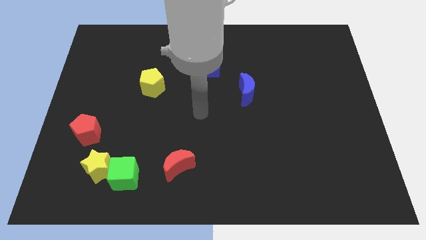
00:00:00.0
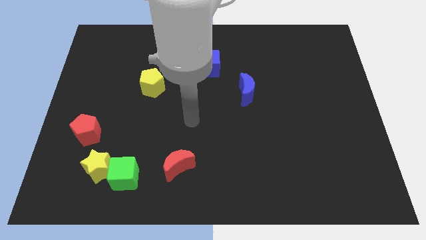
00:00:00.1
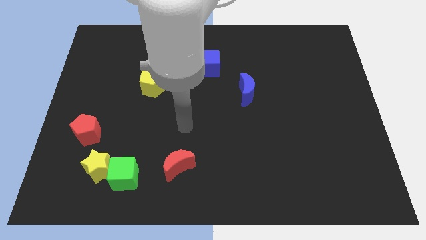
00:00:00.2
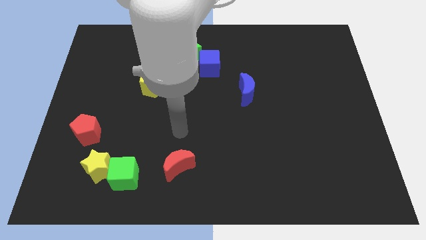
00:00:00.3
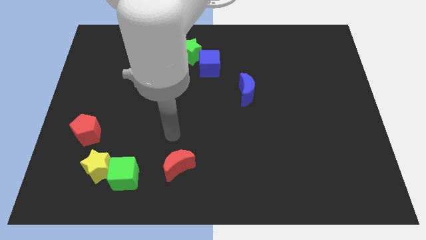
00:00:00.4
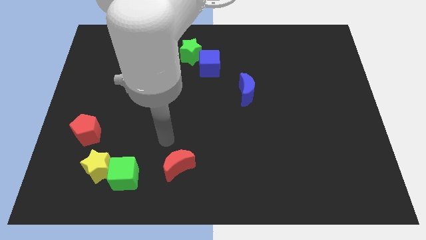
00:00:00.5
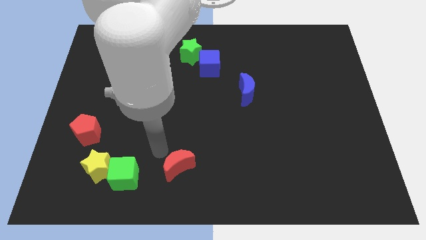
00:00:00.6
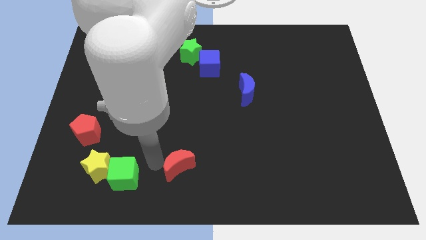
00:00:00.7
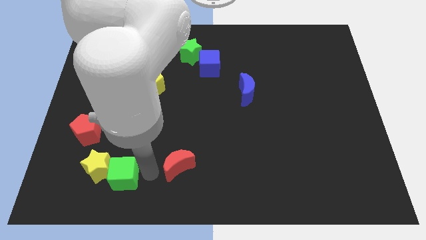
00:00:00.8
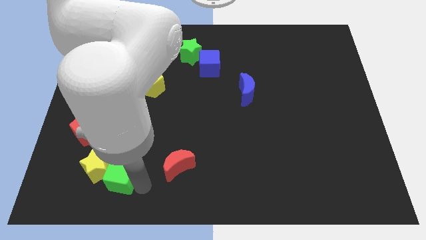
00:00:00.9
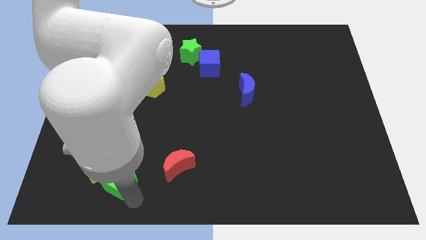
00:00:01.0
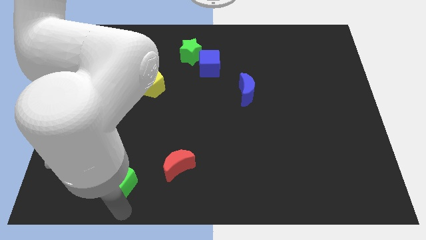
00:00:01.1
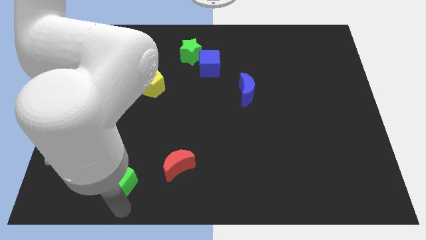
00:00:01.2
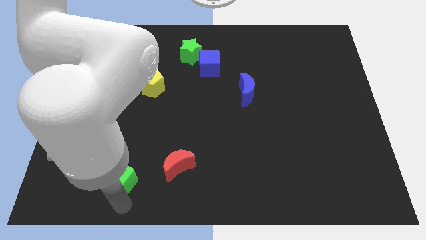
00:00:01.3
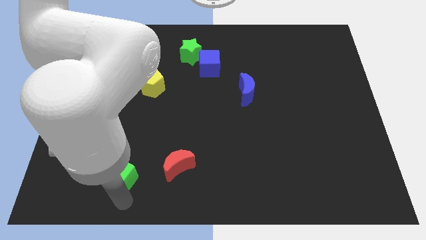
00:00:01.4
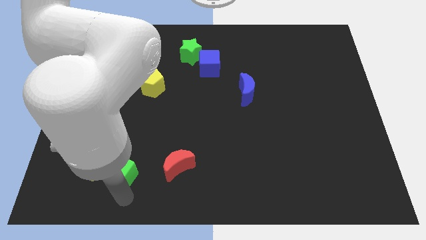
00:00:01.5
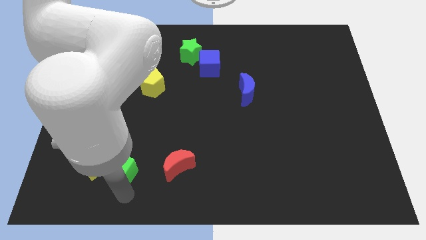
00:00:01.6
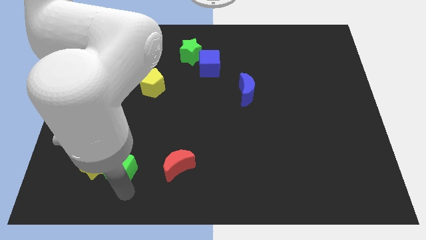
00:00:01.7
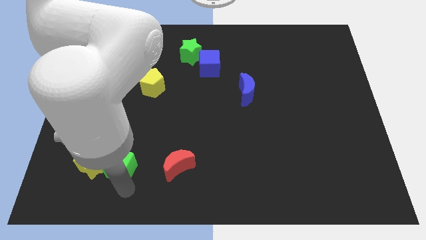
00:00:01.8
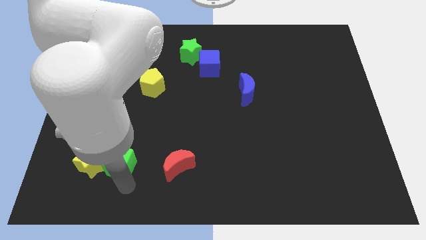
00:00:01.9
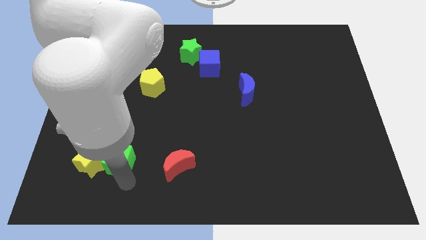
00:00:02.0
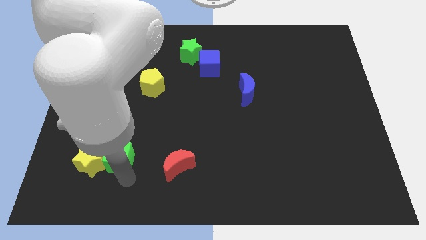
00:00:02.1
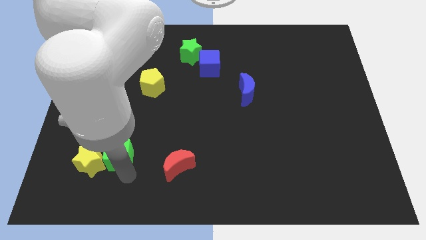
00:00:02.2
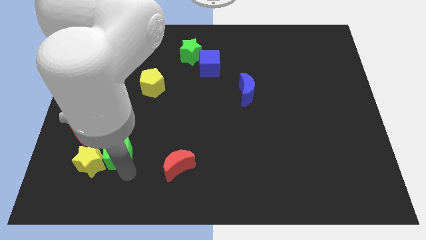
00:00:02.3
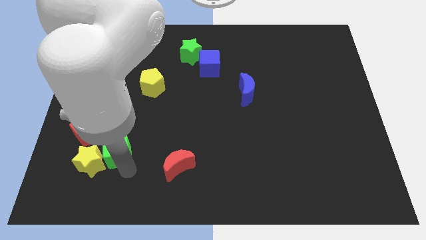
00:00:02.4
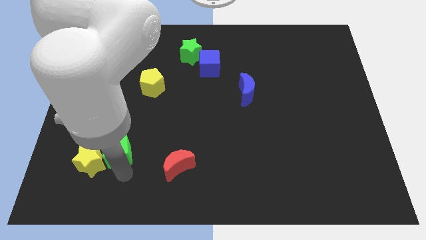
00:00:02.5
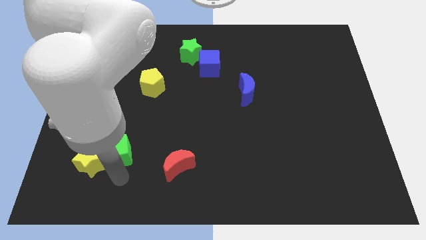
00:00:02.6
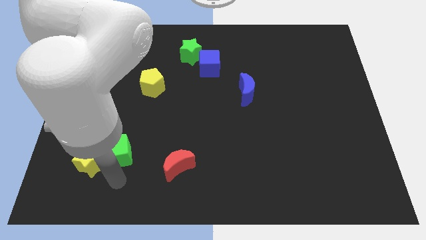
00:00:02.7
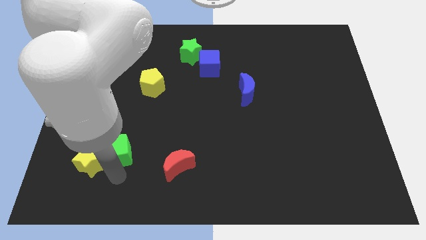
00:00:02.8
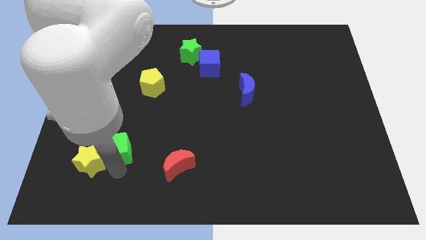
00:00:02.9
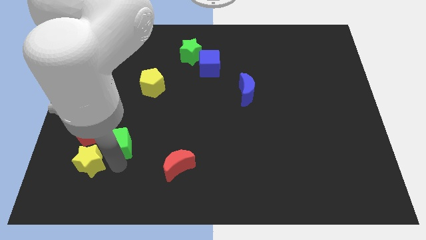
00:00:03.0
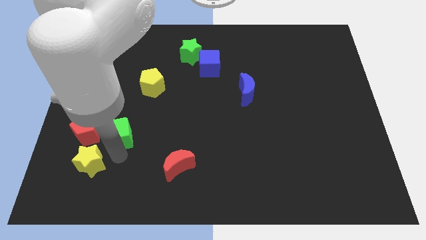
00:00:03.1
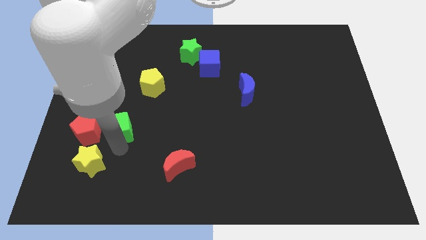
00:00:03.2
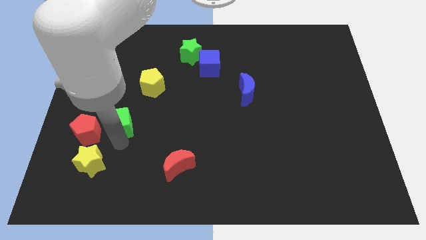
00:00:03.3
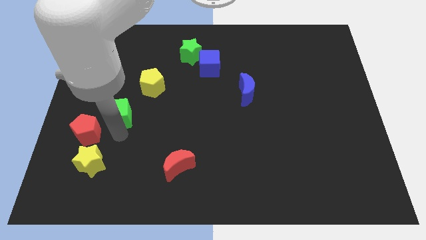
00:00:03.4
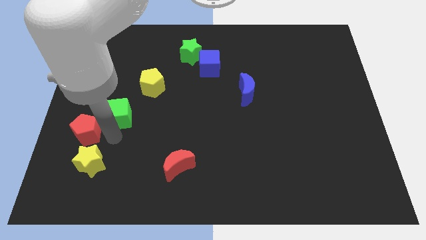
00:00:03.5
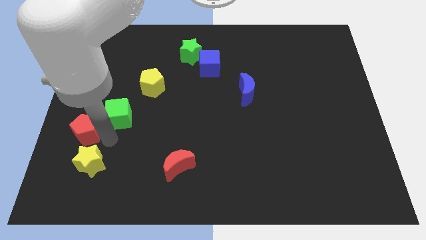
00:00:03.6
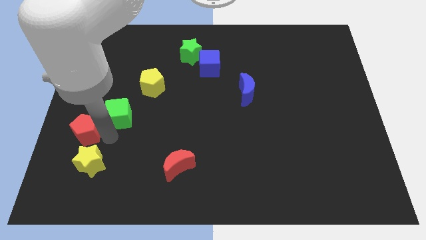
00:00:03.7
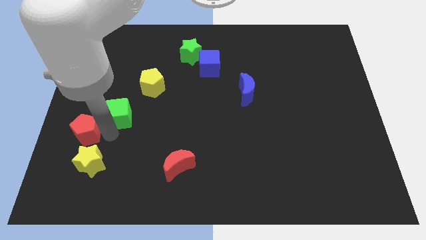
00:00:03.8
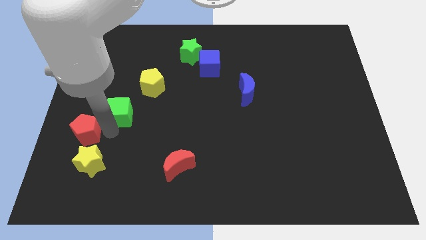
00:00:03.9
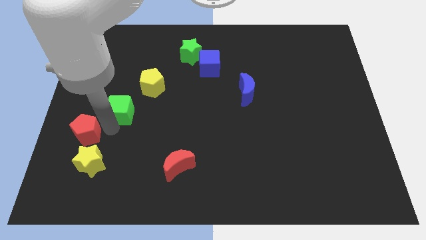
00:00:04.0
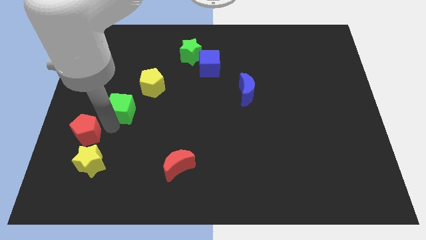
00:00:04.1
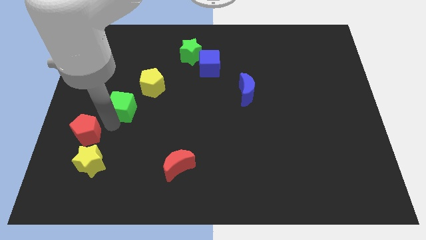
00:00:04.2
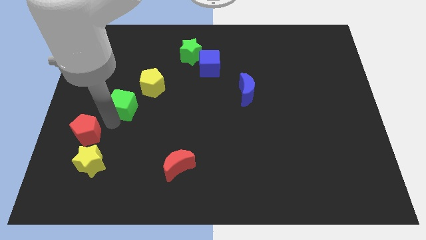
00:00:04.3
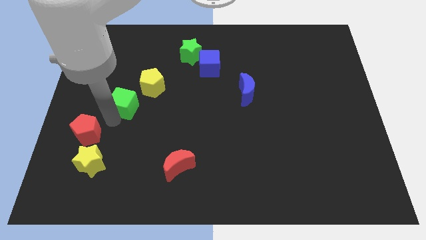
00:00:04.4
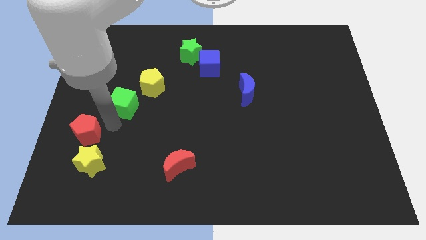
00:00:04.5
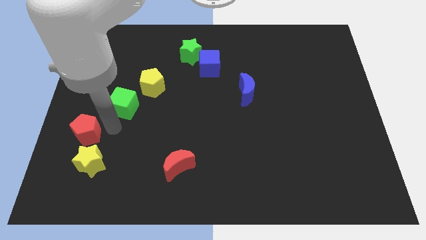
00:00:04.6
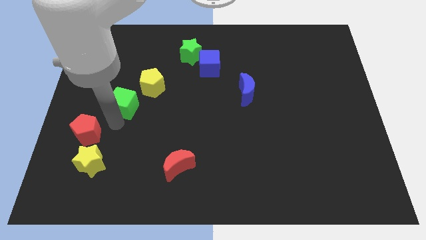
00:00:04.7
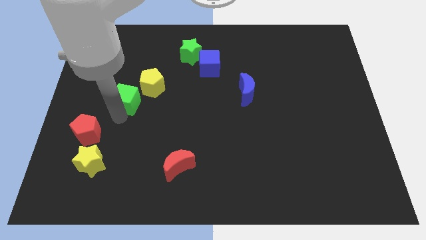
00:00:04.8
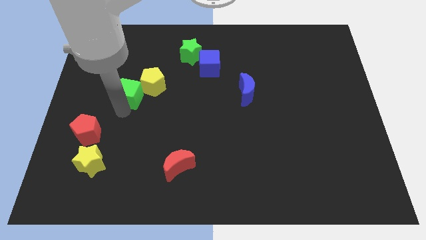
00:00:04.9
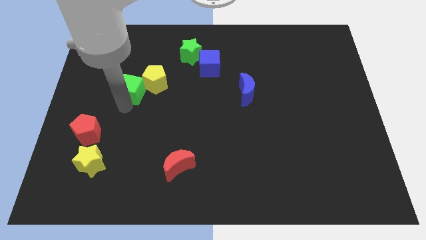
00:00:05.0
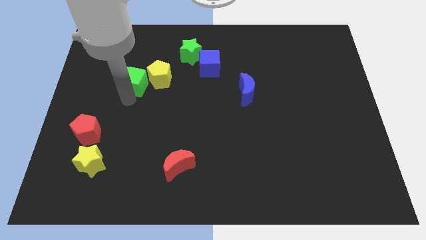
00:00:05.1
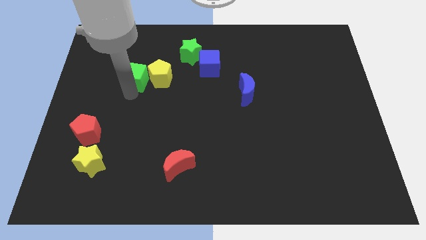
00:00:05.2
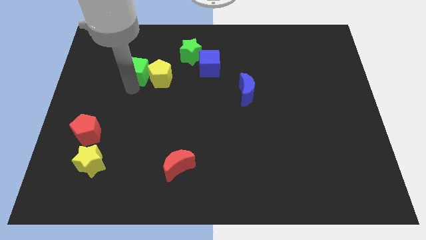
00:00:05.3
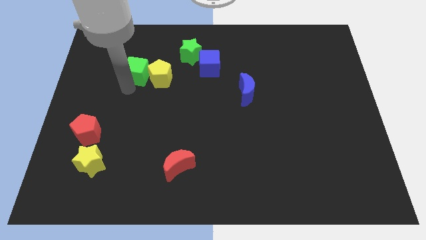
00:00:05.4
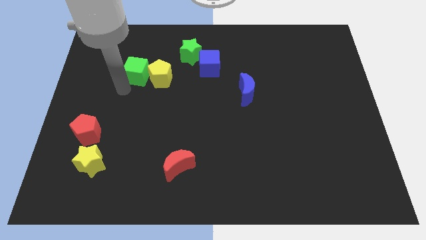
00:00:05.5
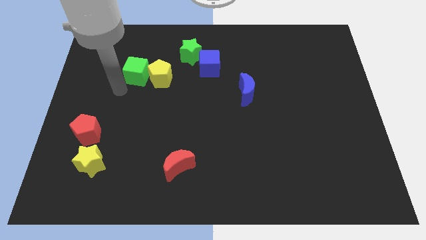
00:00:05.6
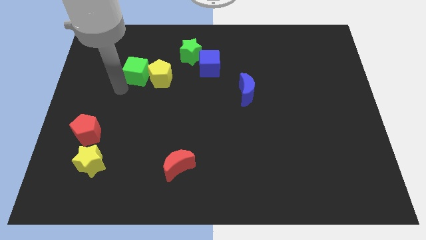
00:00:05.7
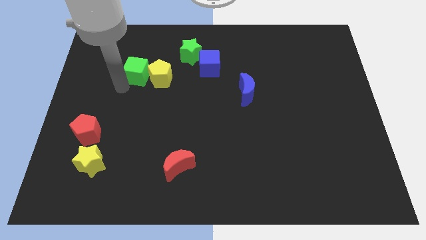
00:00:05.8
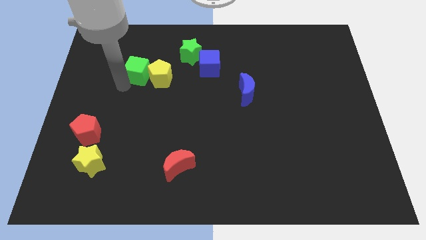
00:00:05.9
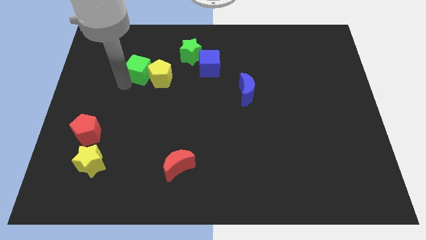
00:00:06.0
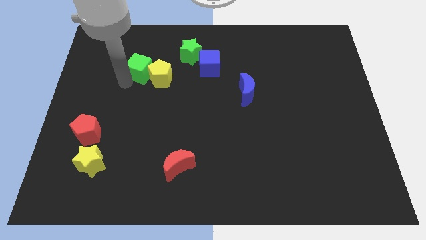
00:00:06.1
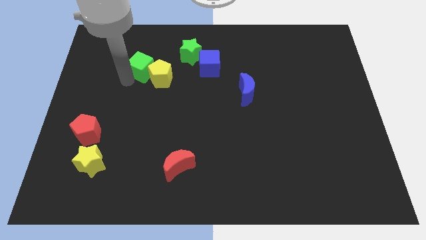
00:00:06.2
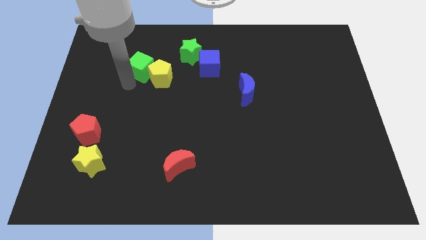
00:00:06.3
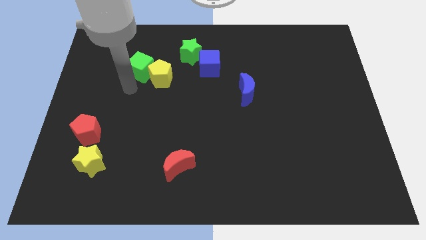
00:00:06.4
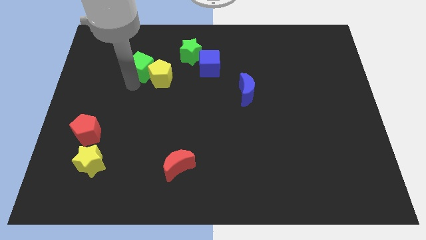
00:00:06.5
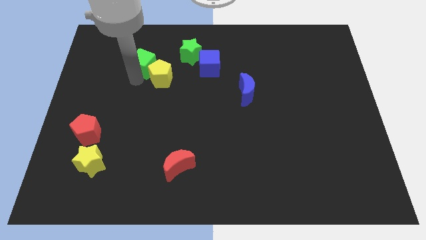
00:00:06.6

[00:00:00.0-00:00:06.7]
put the green cube to the left side of the green star

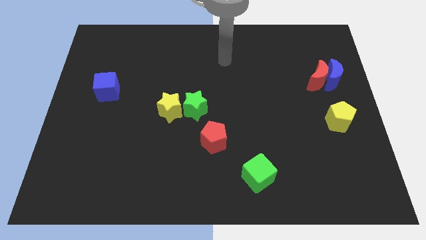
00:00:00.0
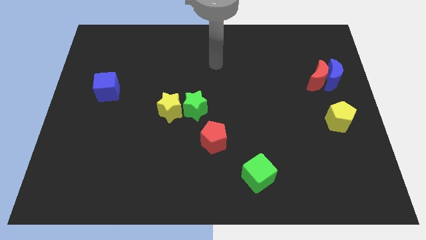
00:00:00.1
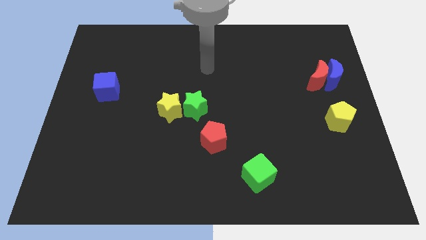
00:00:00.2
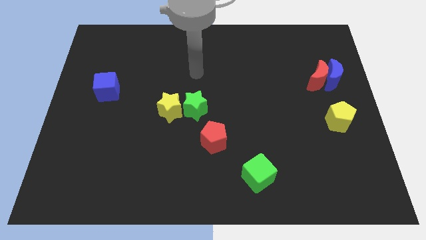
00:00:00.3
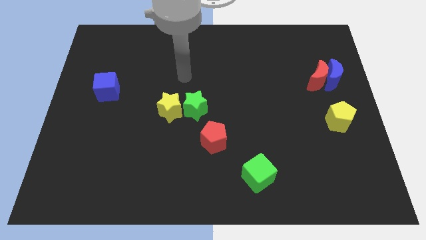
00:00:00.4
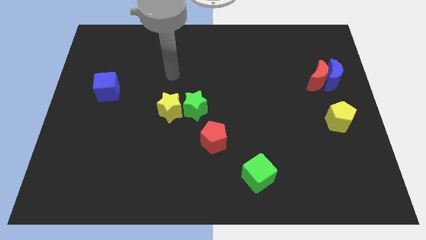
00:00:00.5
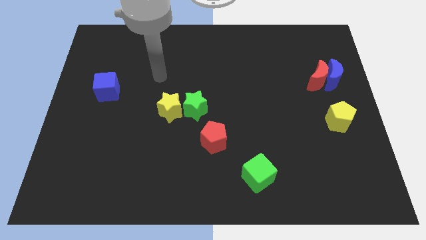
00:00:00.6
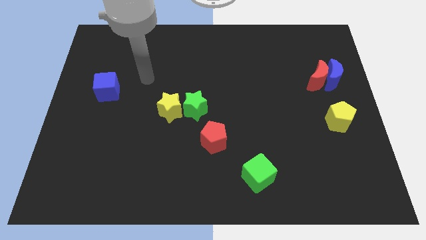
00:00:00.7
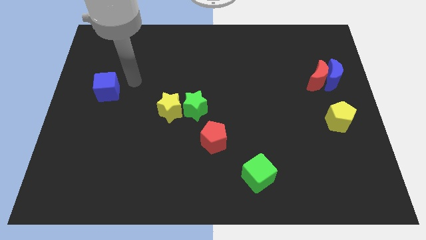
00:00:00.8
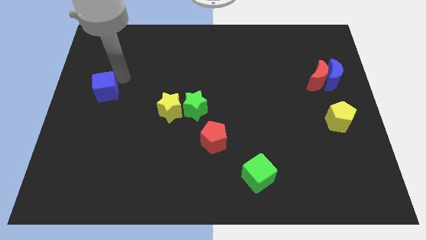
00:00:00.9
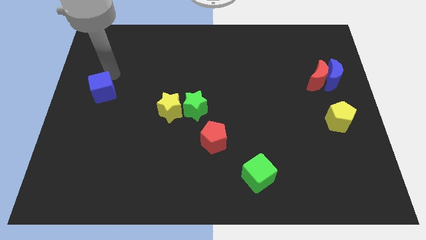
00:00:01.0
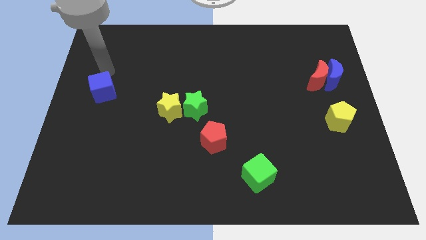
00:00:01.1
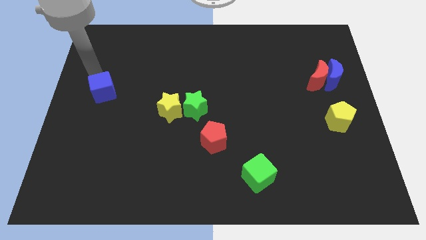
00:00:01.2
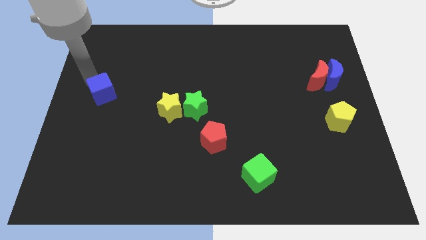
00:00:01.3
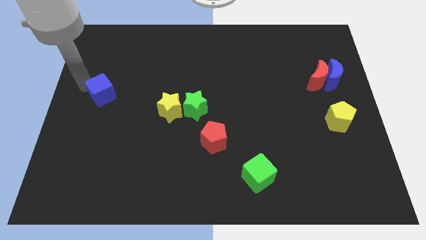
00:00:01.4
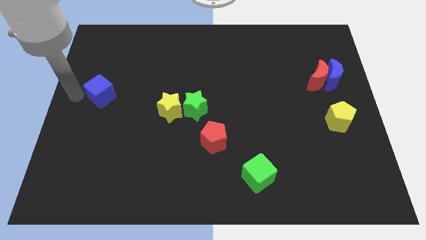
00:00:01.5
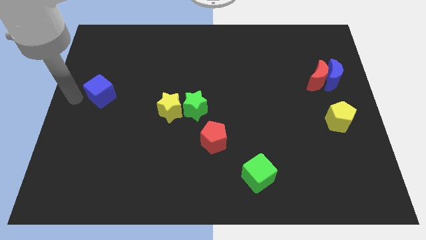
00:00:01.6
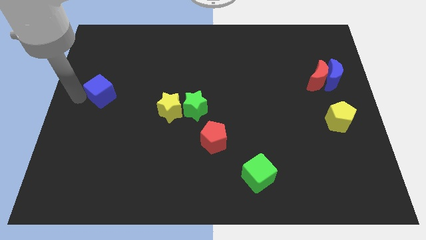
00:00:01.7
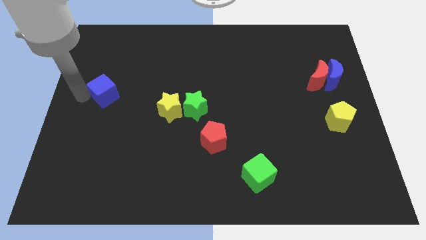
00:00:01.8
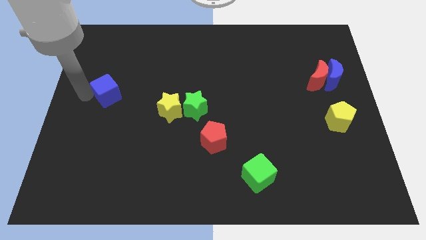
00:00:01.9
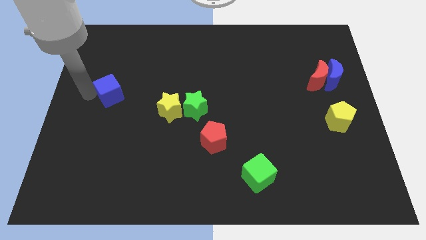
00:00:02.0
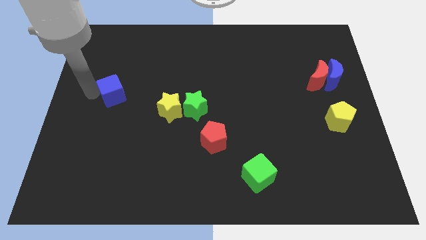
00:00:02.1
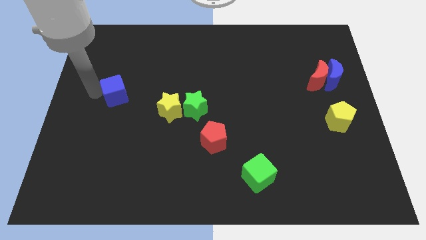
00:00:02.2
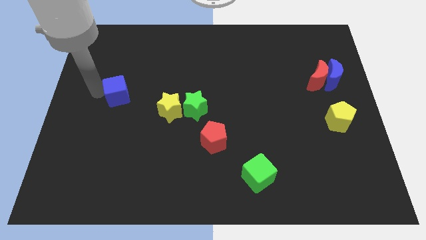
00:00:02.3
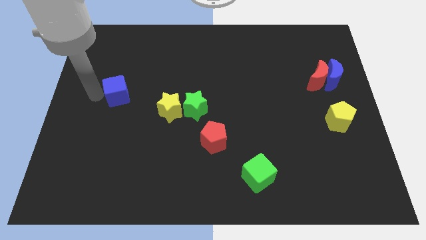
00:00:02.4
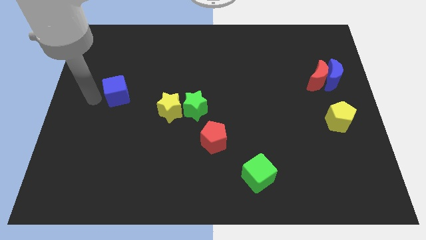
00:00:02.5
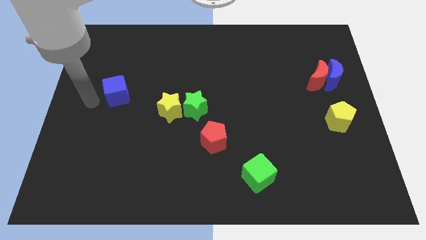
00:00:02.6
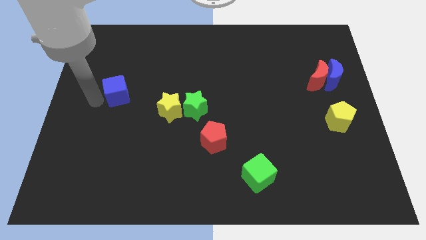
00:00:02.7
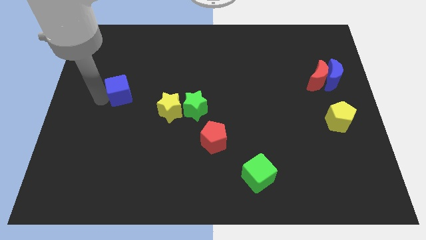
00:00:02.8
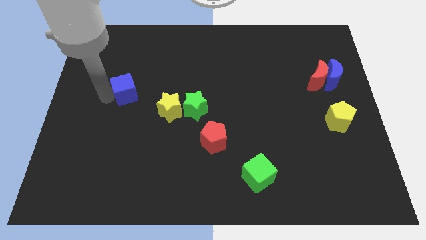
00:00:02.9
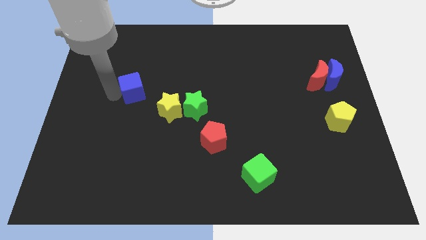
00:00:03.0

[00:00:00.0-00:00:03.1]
put the blue cube diagonally up and to the left of the yellow star
